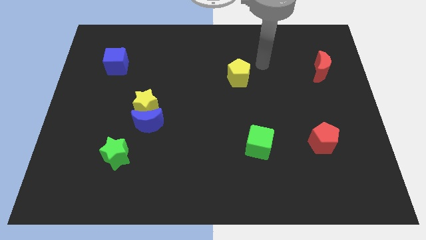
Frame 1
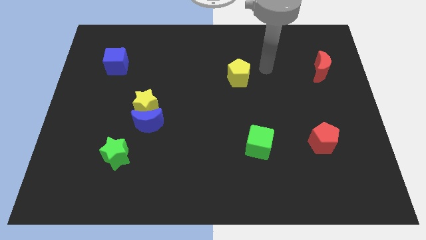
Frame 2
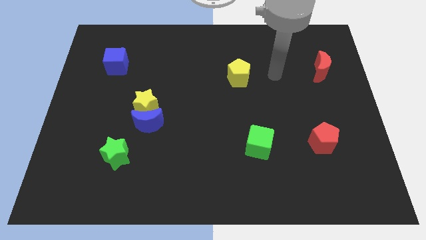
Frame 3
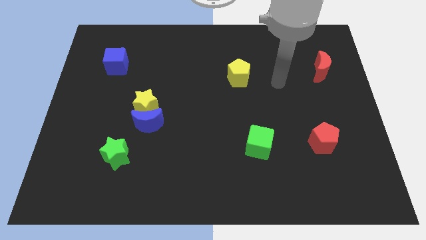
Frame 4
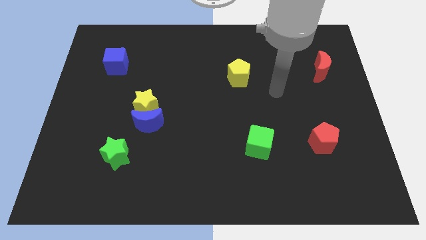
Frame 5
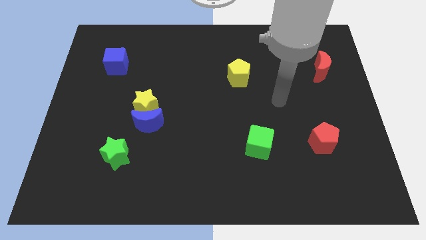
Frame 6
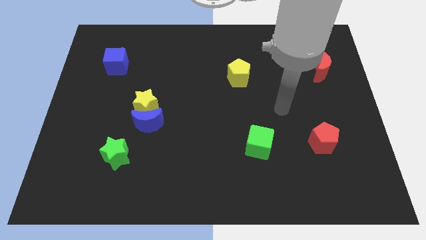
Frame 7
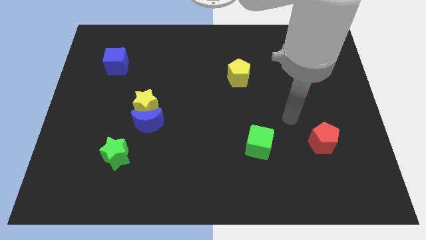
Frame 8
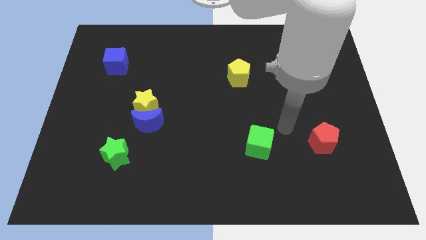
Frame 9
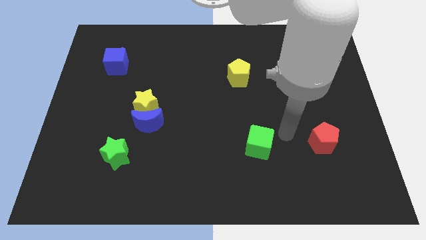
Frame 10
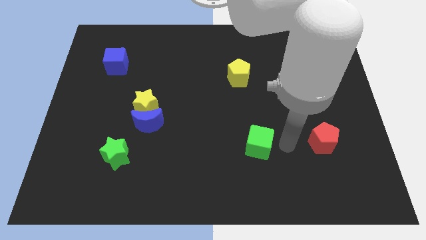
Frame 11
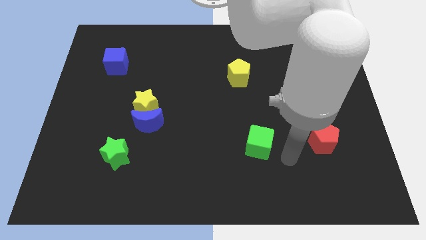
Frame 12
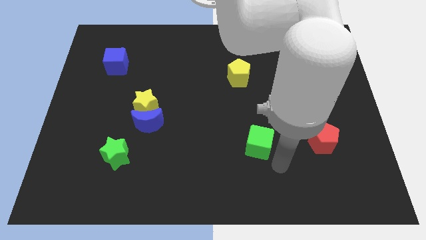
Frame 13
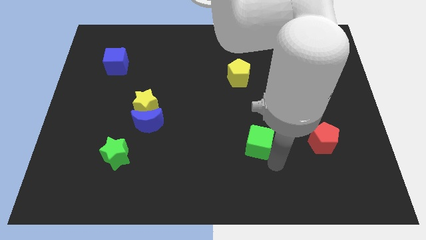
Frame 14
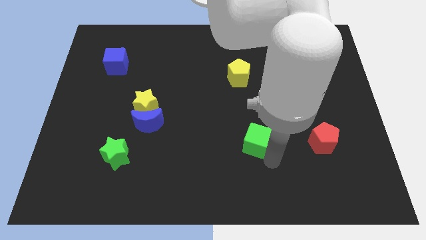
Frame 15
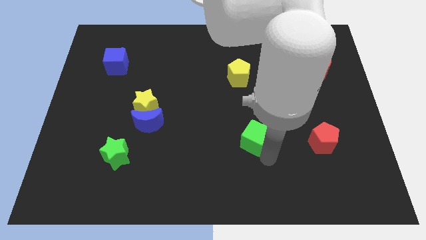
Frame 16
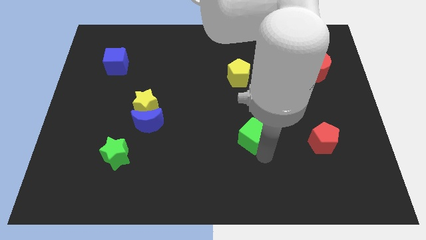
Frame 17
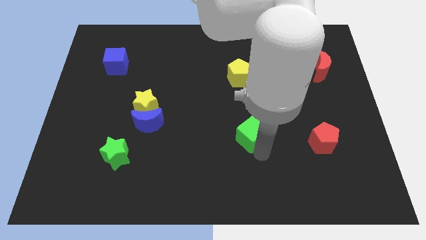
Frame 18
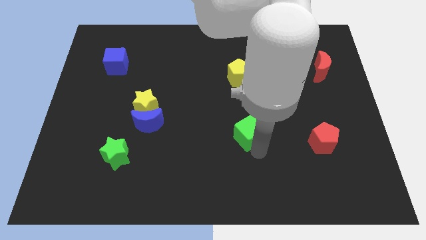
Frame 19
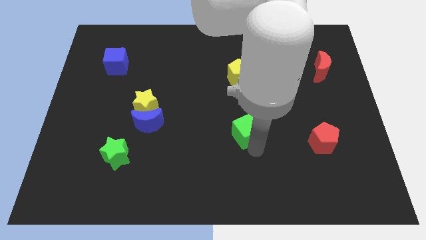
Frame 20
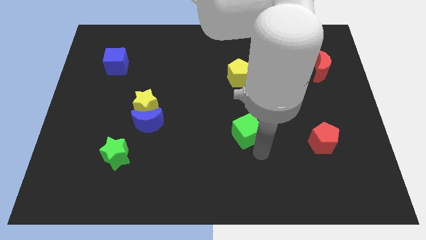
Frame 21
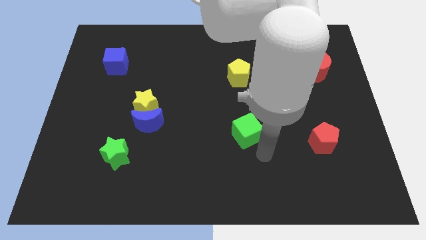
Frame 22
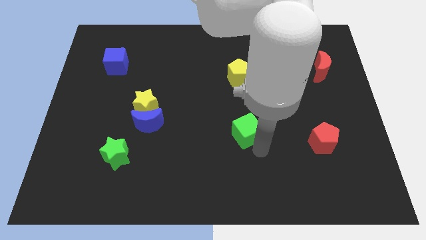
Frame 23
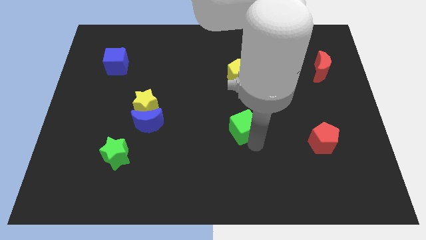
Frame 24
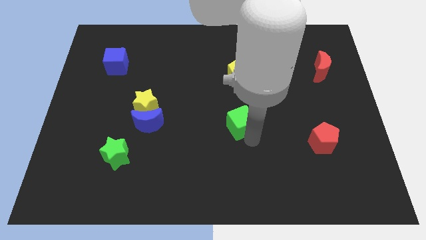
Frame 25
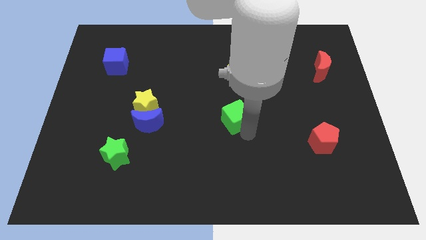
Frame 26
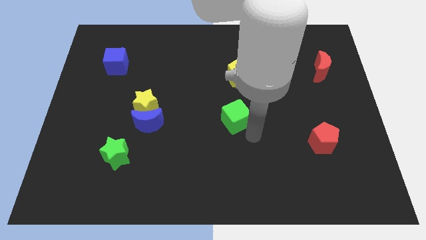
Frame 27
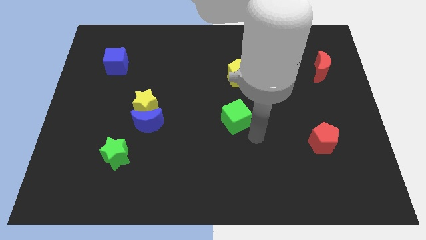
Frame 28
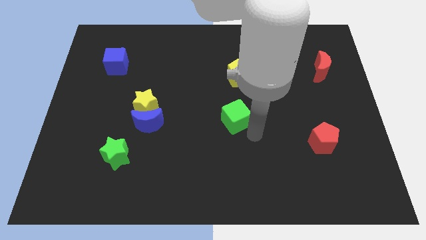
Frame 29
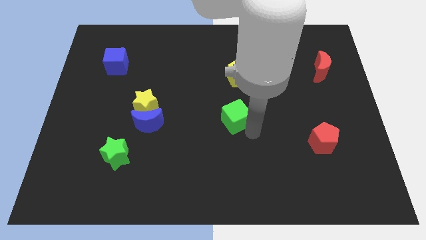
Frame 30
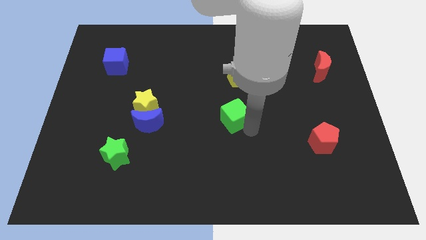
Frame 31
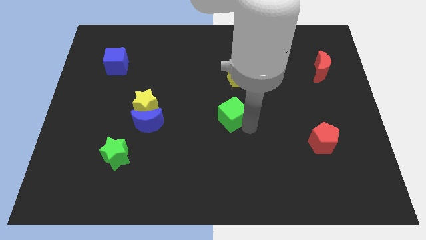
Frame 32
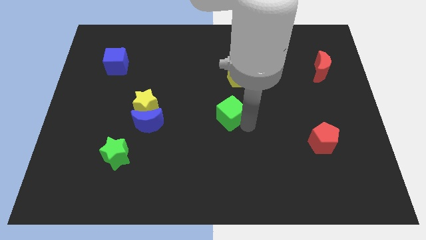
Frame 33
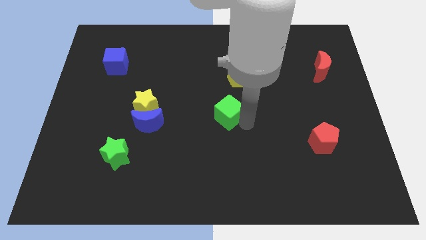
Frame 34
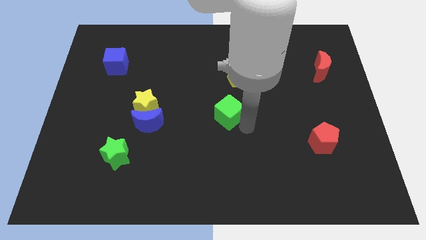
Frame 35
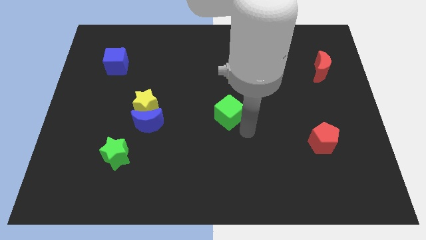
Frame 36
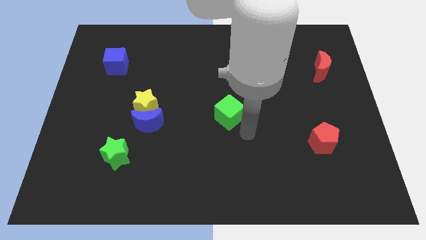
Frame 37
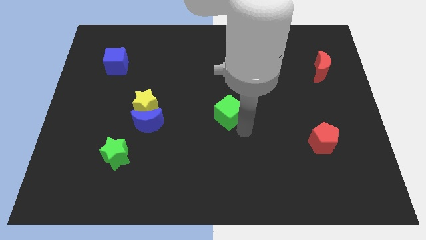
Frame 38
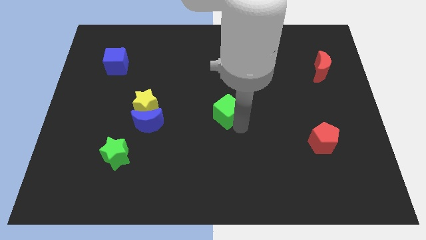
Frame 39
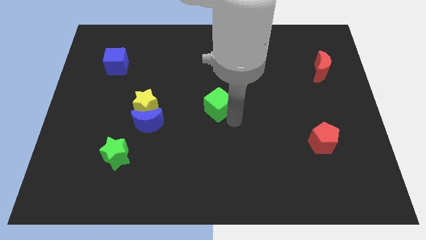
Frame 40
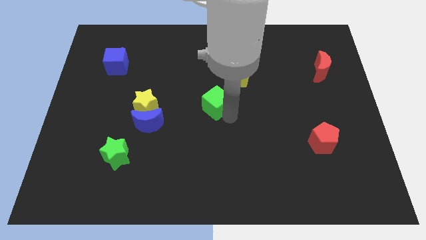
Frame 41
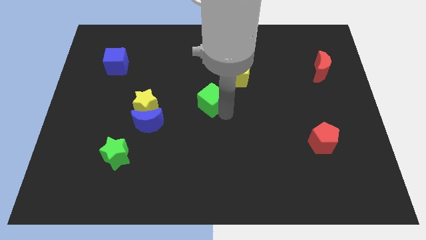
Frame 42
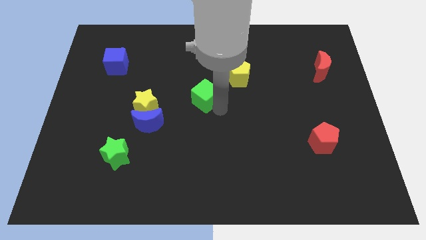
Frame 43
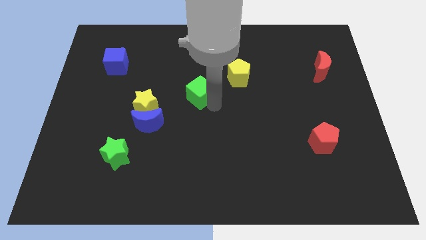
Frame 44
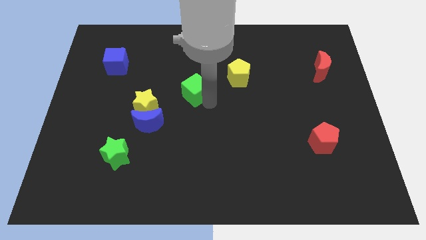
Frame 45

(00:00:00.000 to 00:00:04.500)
move the green cube up and to the left diagonally

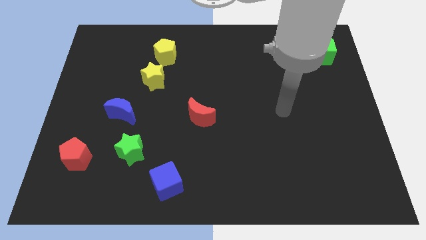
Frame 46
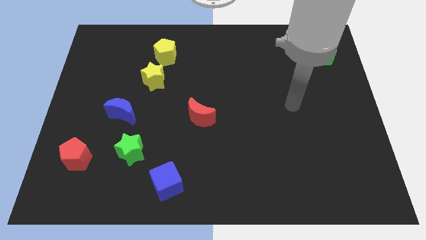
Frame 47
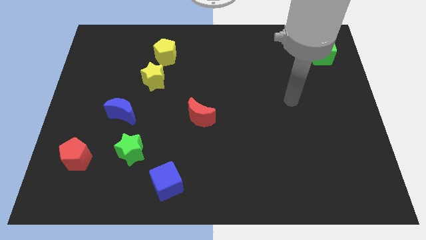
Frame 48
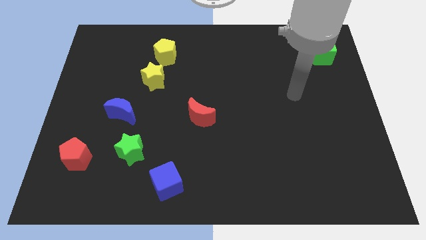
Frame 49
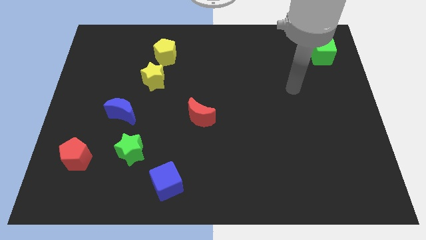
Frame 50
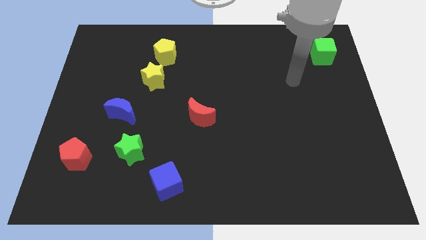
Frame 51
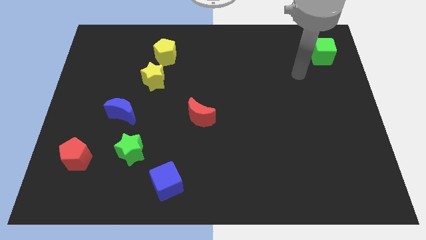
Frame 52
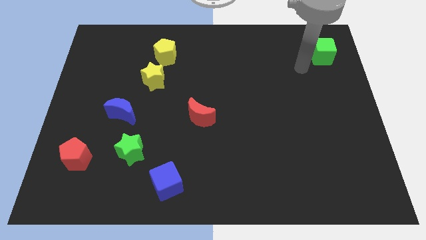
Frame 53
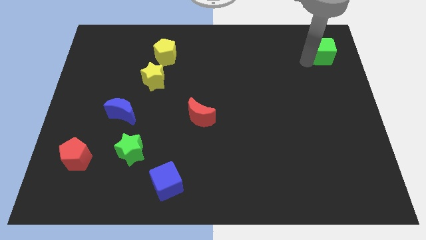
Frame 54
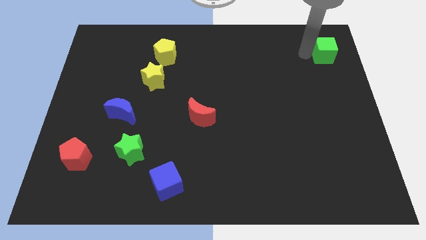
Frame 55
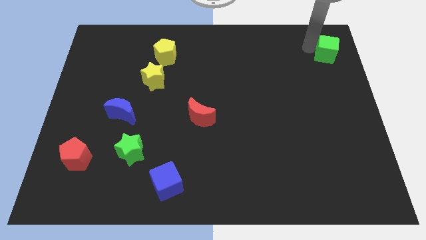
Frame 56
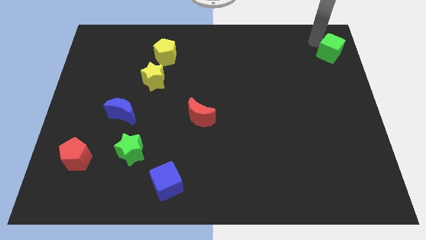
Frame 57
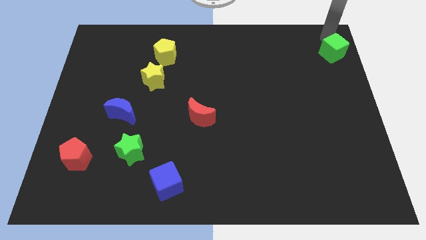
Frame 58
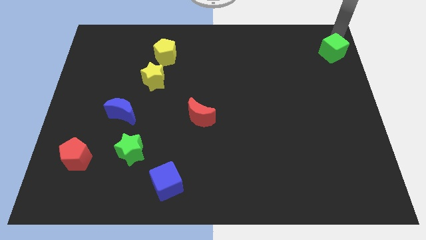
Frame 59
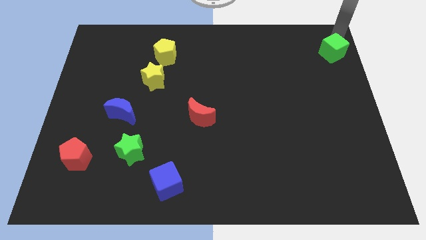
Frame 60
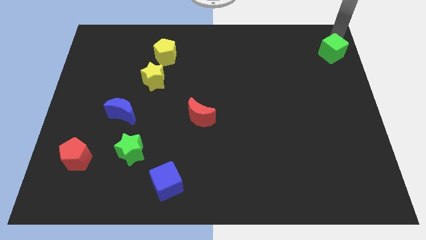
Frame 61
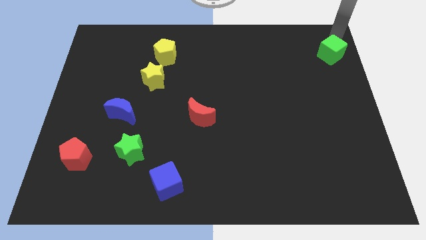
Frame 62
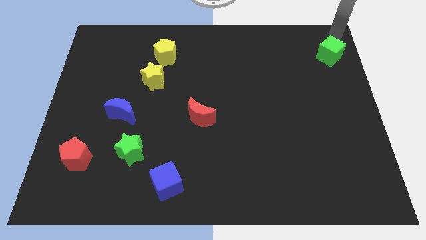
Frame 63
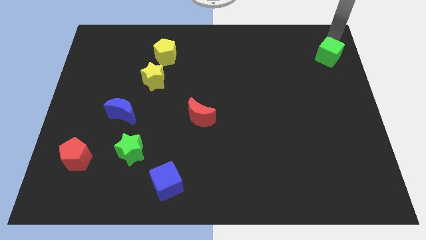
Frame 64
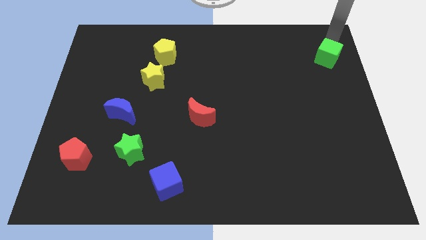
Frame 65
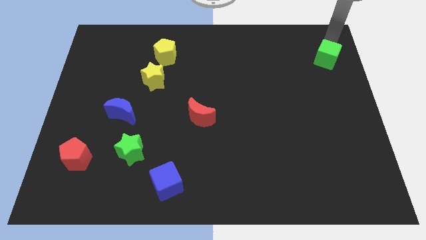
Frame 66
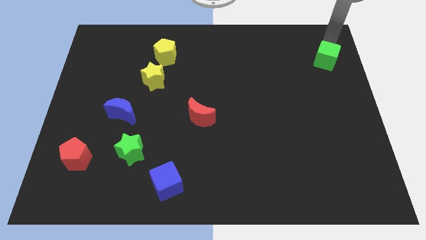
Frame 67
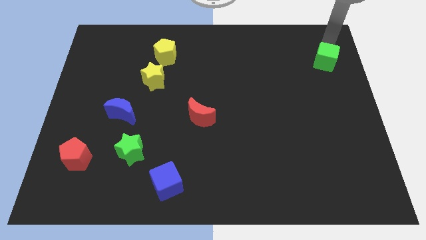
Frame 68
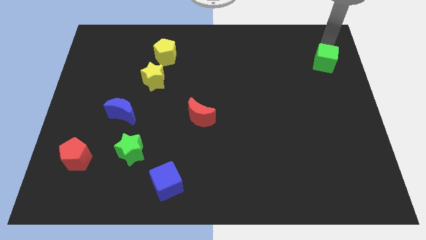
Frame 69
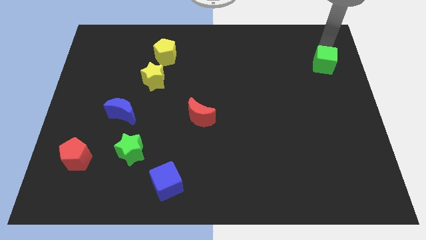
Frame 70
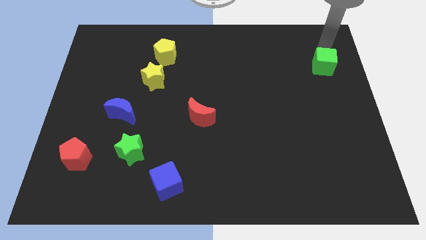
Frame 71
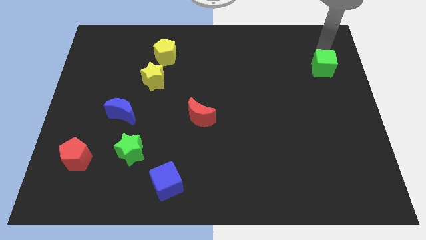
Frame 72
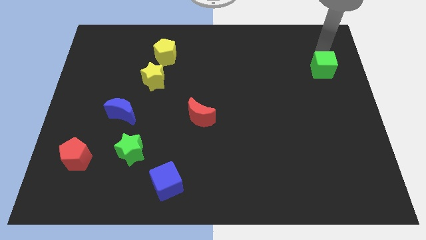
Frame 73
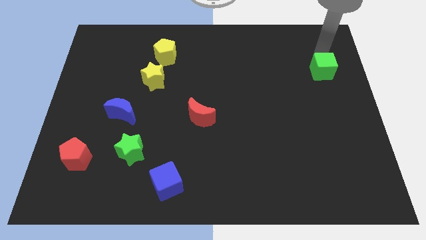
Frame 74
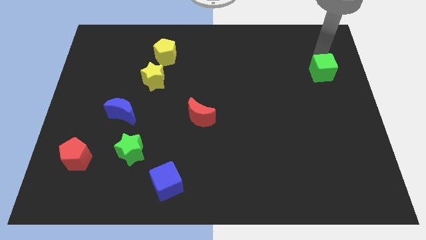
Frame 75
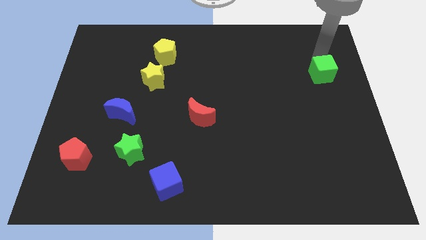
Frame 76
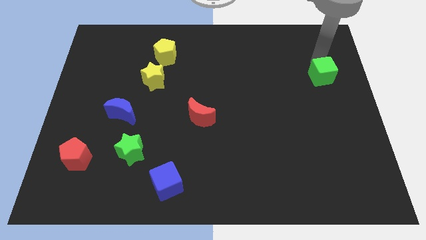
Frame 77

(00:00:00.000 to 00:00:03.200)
push the green cube a bit downwards

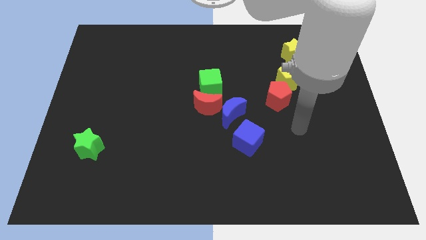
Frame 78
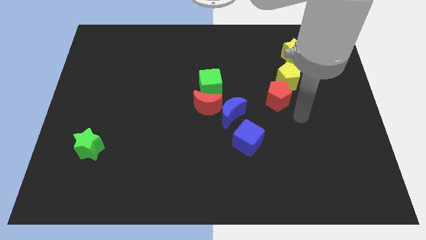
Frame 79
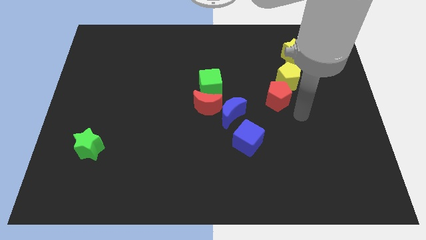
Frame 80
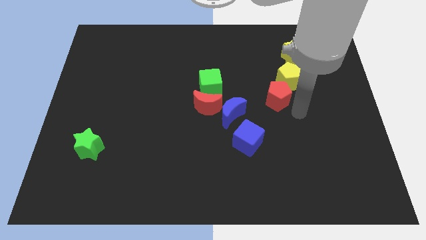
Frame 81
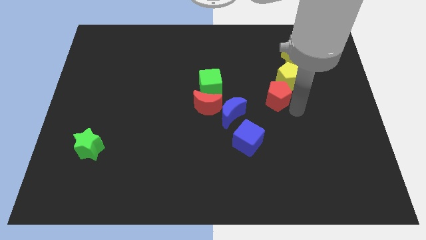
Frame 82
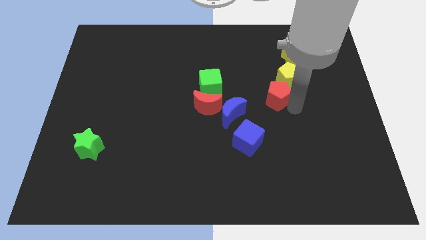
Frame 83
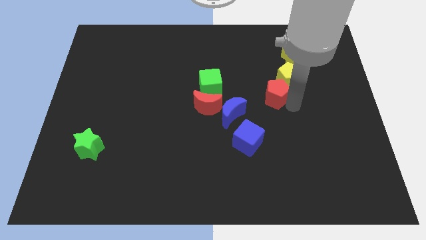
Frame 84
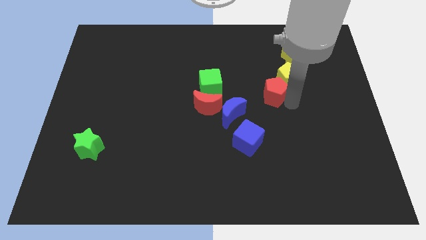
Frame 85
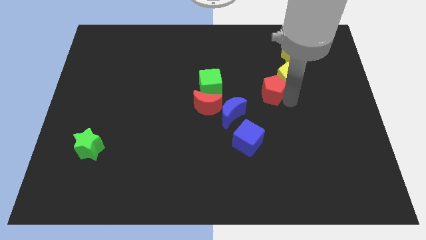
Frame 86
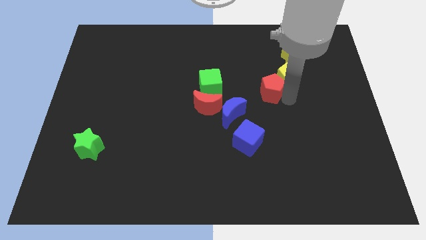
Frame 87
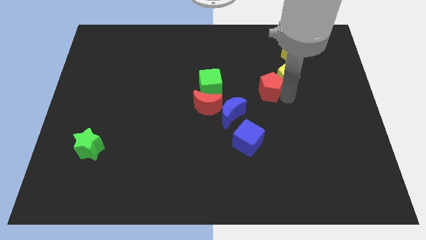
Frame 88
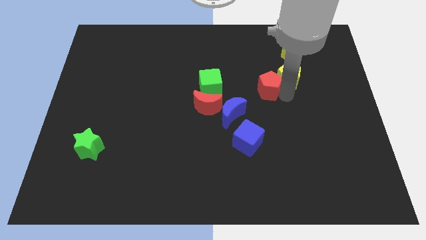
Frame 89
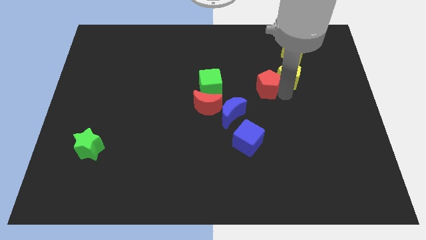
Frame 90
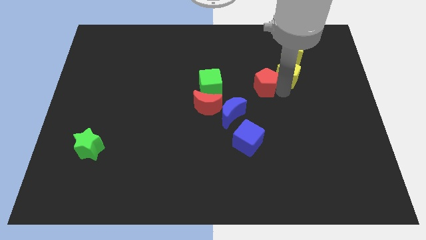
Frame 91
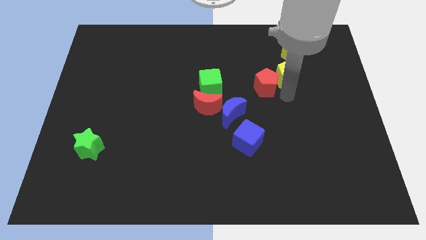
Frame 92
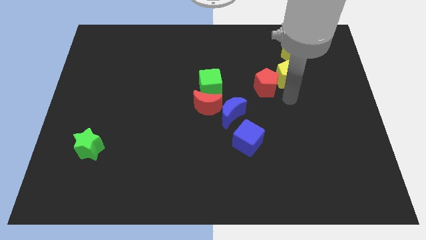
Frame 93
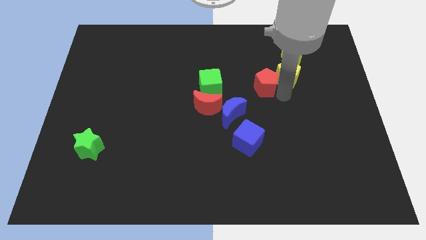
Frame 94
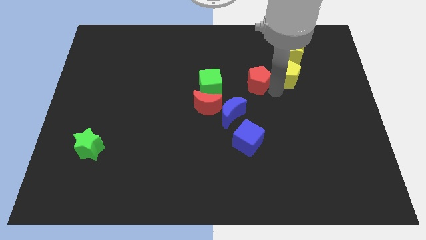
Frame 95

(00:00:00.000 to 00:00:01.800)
move the red pentagon slightly diagonally upwards and to the left
